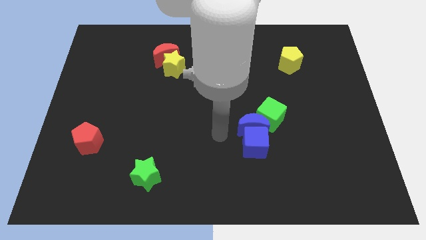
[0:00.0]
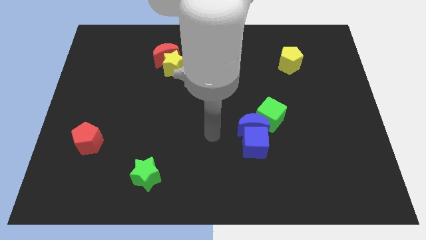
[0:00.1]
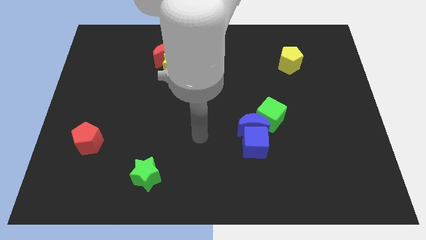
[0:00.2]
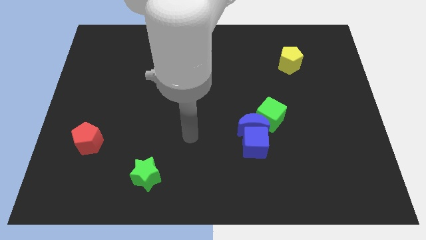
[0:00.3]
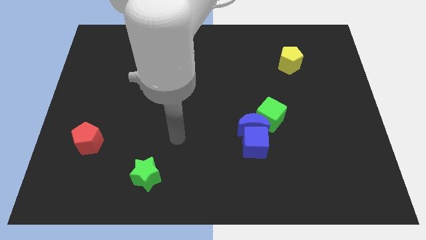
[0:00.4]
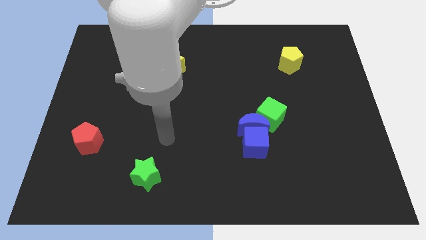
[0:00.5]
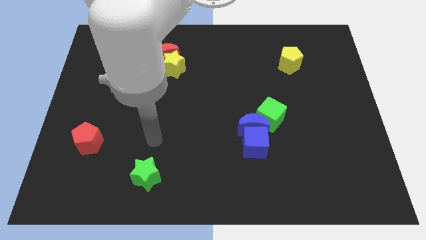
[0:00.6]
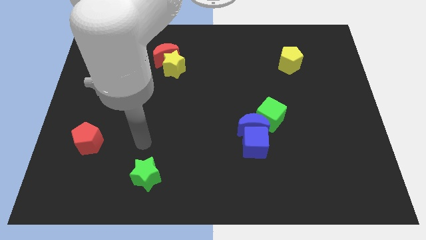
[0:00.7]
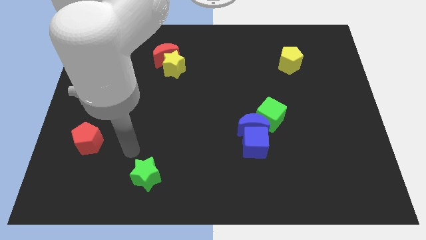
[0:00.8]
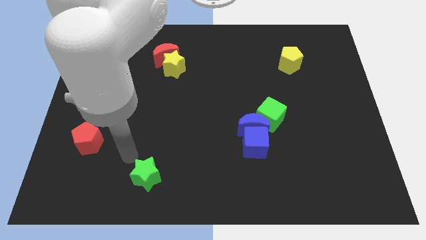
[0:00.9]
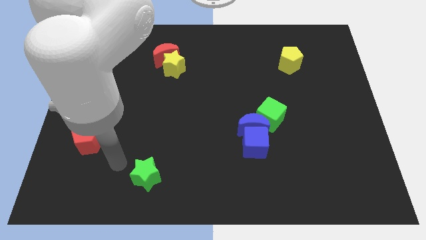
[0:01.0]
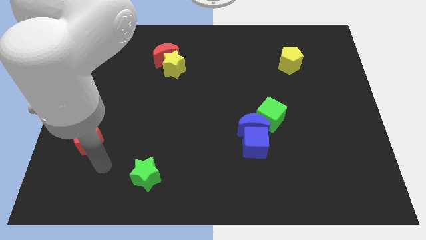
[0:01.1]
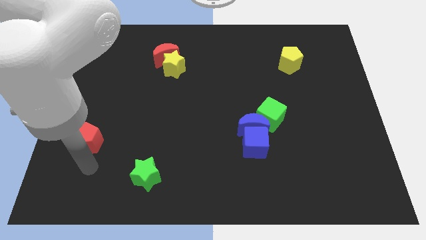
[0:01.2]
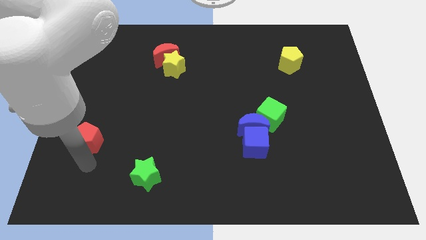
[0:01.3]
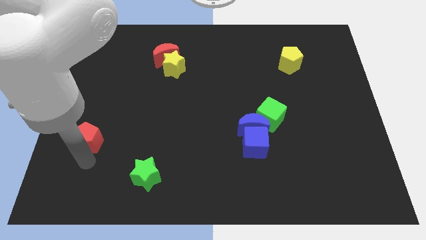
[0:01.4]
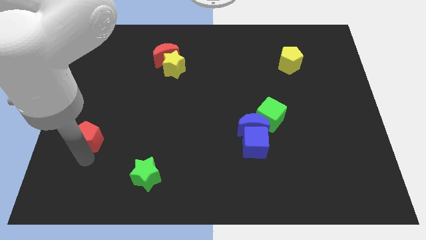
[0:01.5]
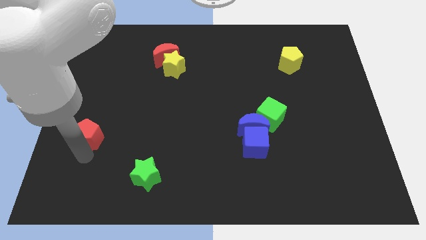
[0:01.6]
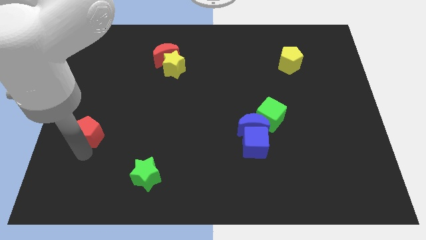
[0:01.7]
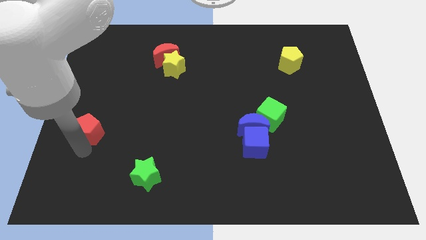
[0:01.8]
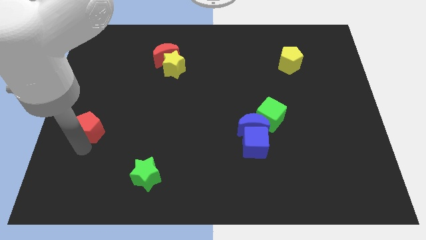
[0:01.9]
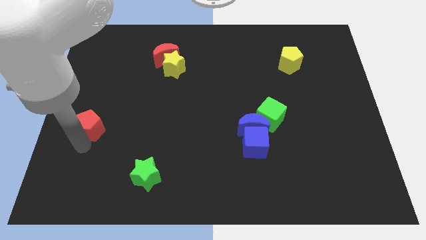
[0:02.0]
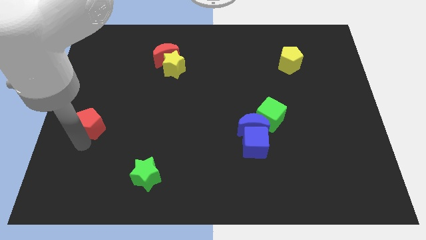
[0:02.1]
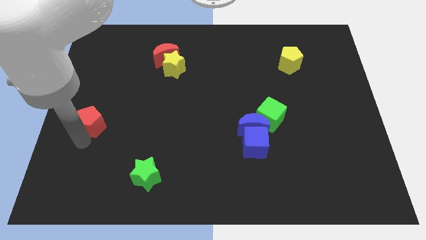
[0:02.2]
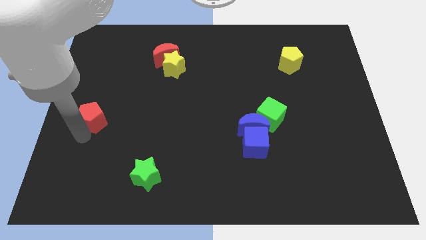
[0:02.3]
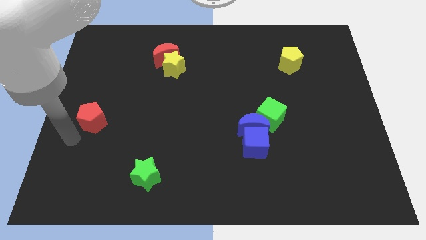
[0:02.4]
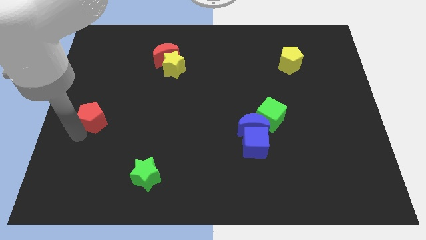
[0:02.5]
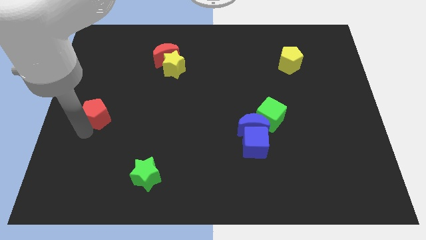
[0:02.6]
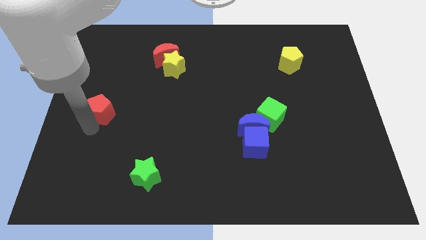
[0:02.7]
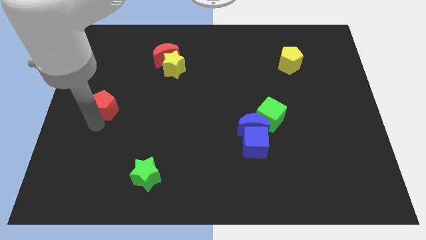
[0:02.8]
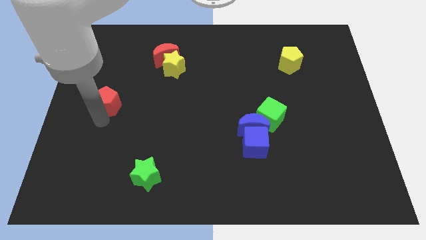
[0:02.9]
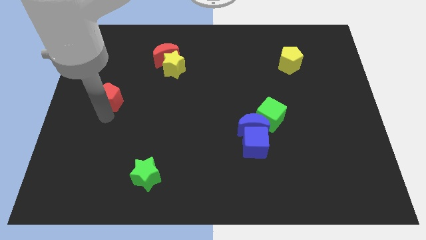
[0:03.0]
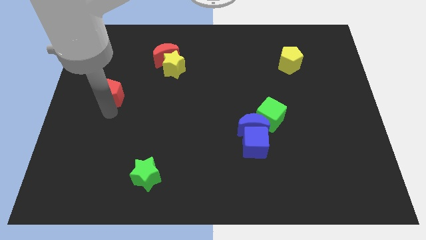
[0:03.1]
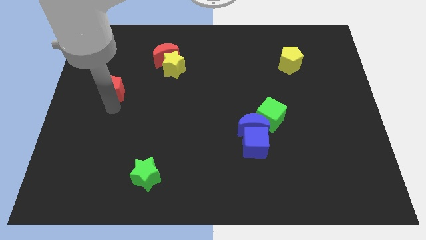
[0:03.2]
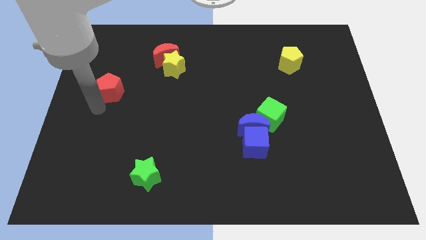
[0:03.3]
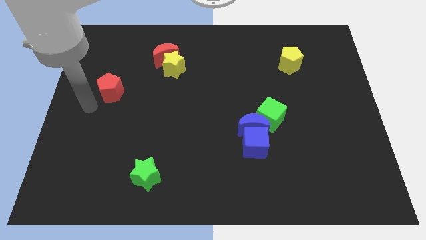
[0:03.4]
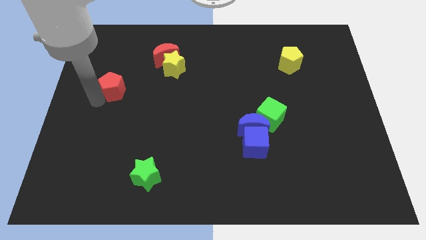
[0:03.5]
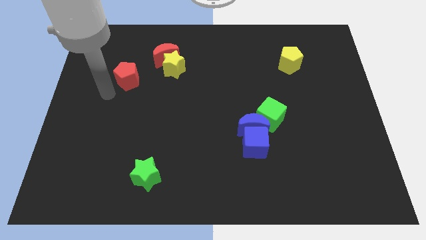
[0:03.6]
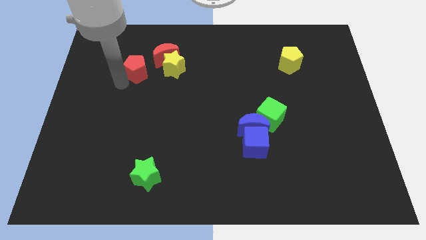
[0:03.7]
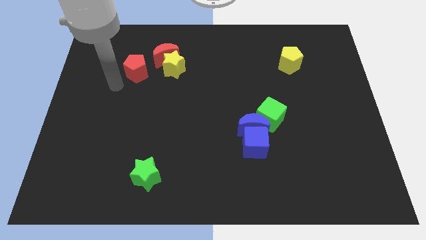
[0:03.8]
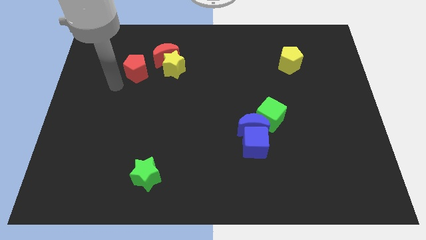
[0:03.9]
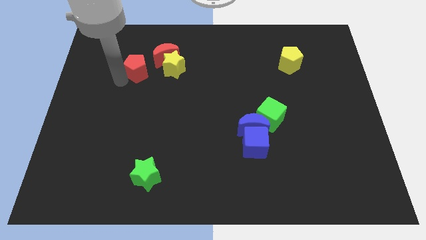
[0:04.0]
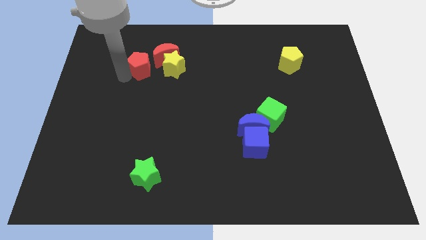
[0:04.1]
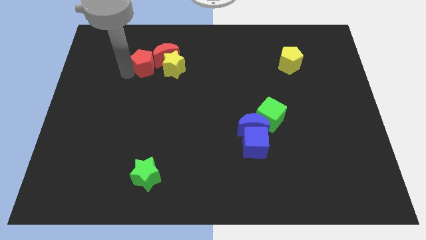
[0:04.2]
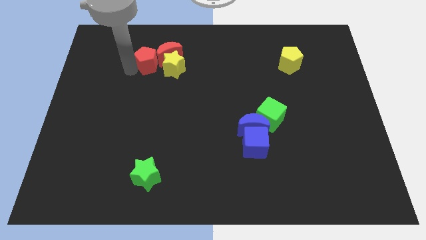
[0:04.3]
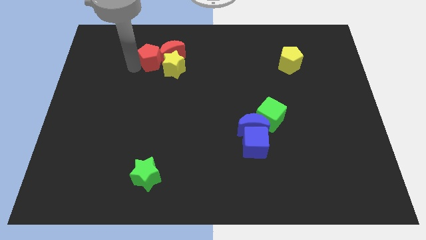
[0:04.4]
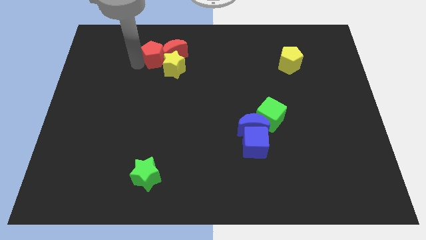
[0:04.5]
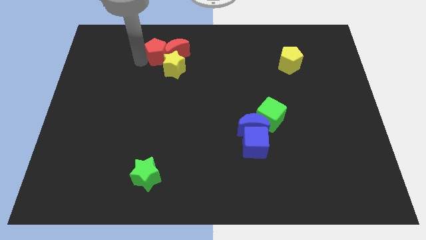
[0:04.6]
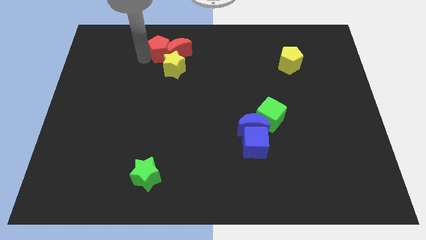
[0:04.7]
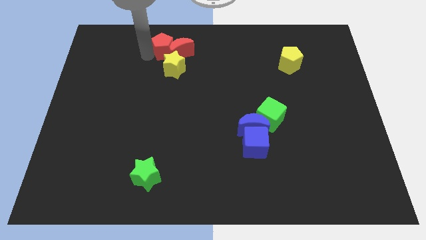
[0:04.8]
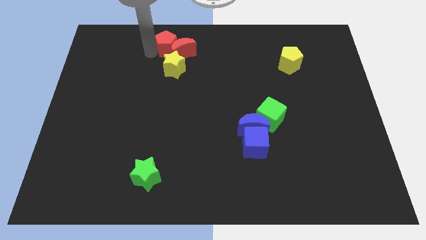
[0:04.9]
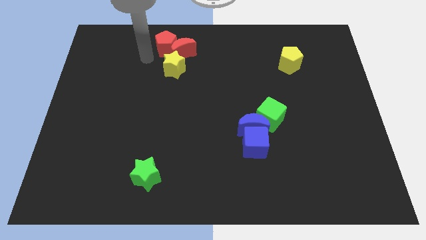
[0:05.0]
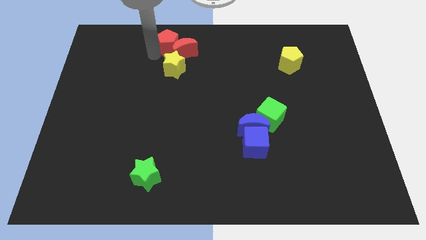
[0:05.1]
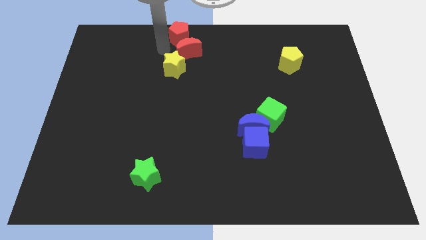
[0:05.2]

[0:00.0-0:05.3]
put the red pentagon to the top side

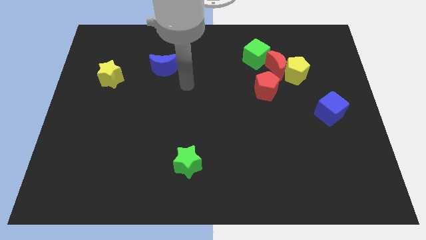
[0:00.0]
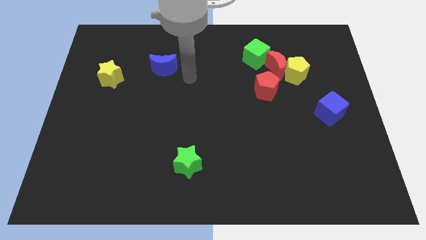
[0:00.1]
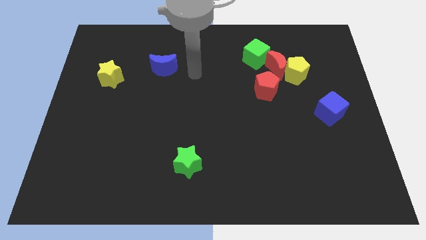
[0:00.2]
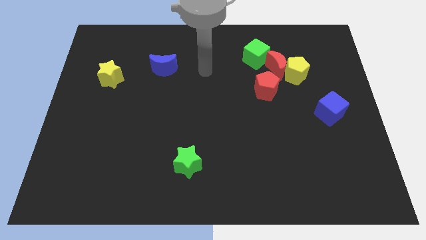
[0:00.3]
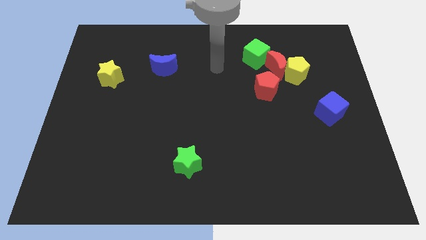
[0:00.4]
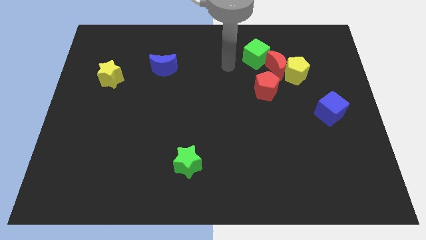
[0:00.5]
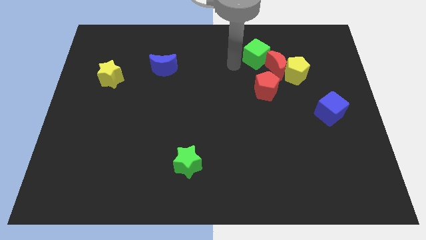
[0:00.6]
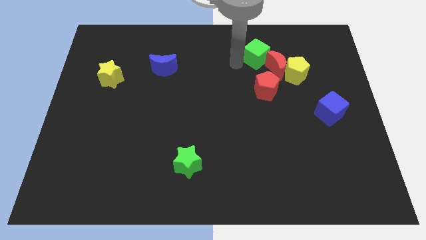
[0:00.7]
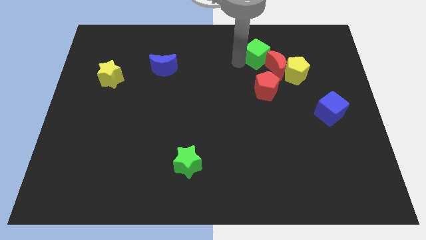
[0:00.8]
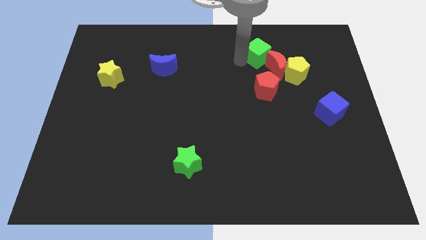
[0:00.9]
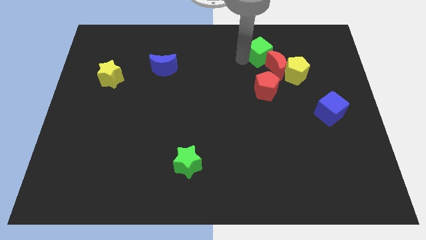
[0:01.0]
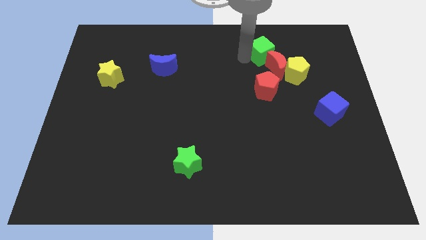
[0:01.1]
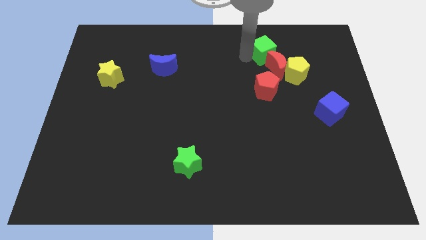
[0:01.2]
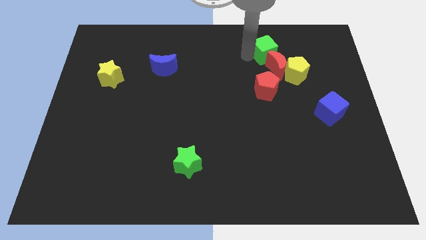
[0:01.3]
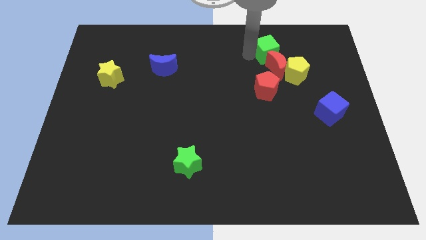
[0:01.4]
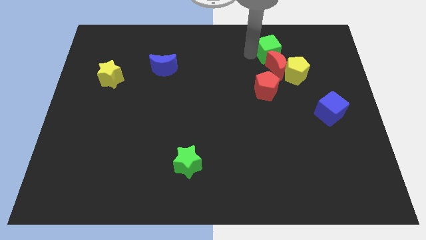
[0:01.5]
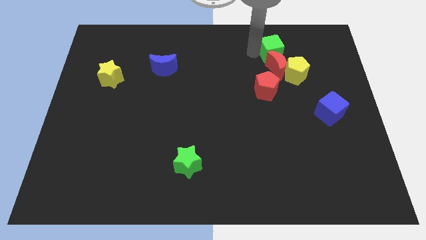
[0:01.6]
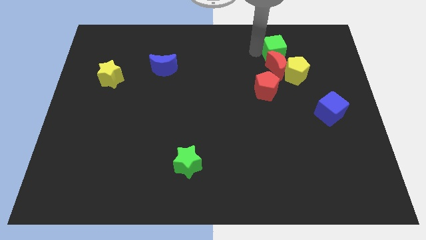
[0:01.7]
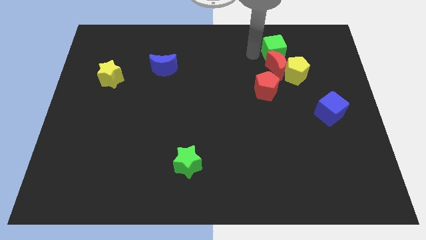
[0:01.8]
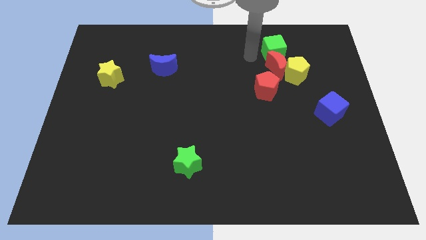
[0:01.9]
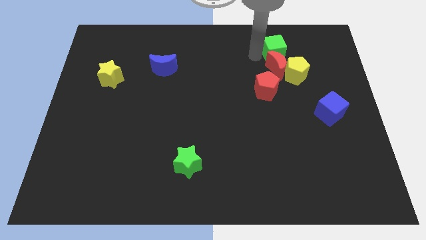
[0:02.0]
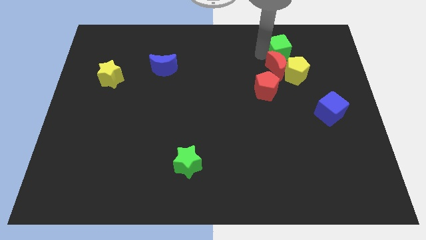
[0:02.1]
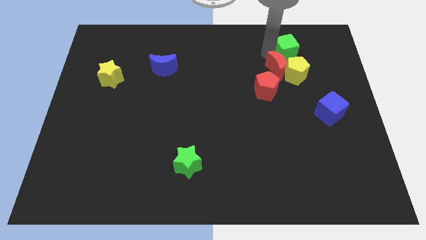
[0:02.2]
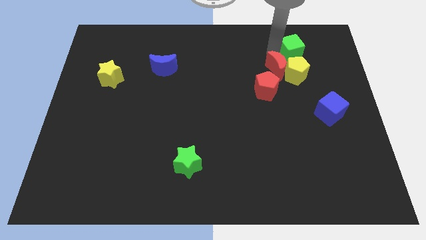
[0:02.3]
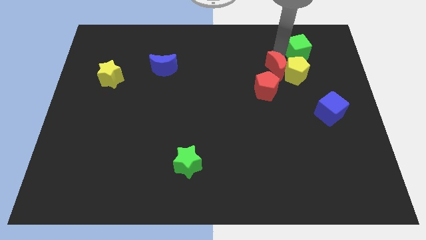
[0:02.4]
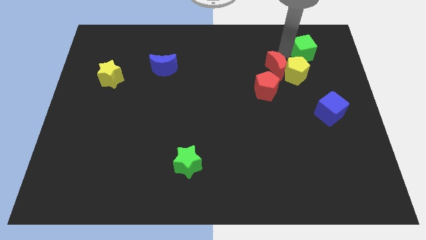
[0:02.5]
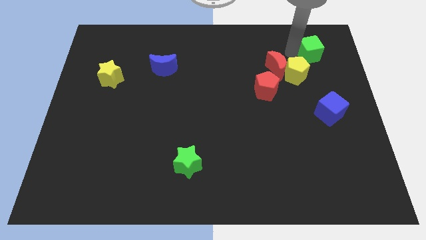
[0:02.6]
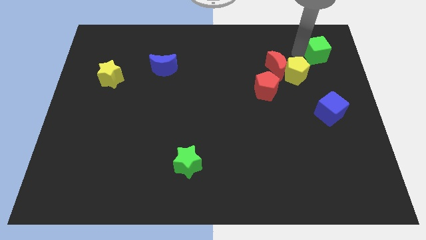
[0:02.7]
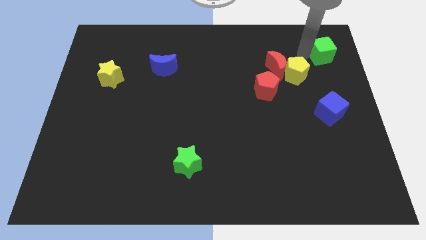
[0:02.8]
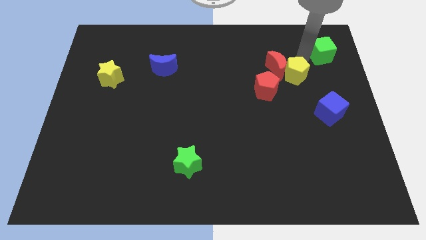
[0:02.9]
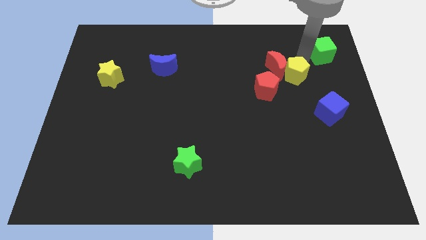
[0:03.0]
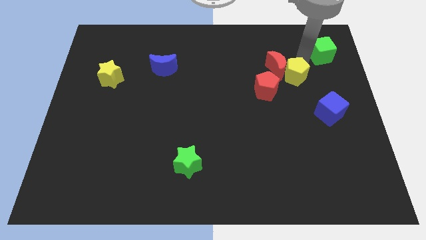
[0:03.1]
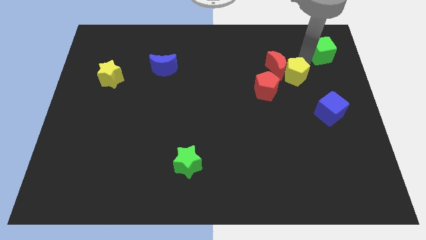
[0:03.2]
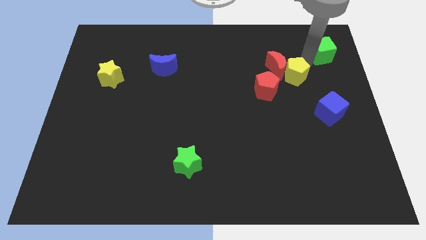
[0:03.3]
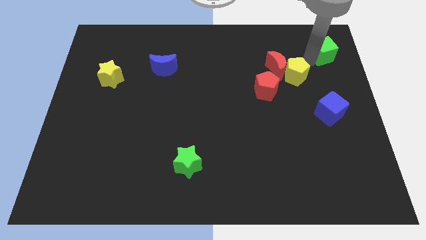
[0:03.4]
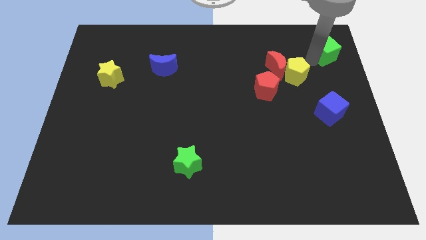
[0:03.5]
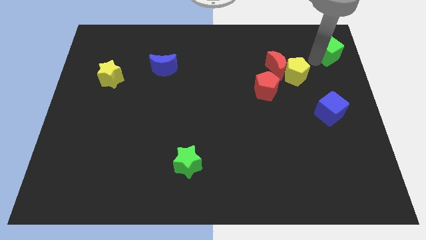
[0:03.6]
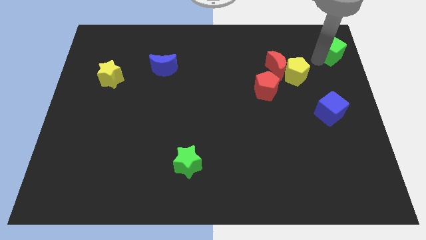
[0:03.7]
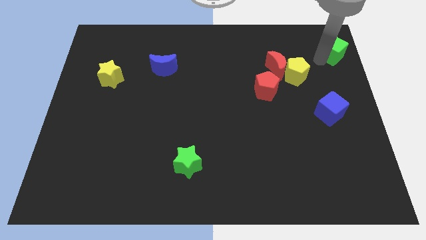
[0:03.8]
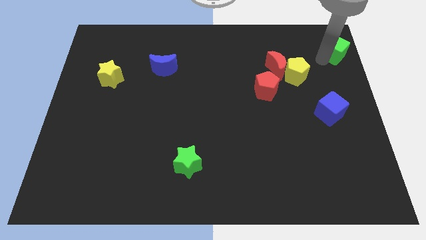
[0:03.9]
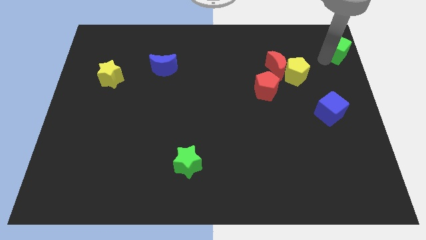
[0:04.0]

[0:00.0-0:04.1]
move the green cube to the top right corner
